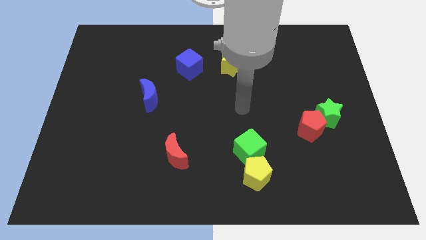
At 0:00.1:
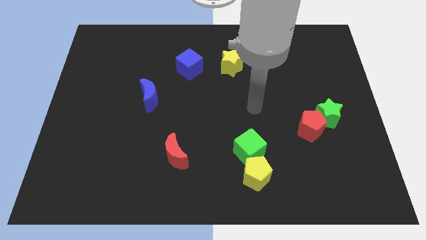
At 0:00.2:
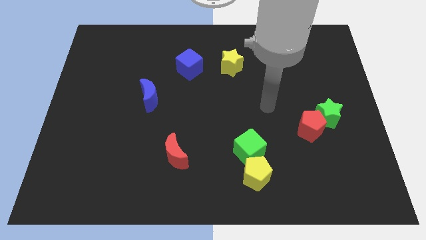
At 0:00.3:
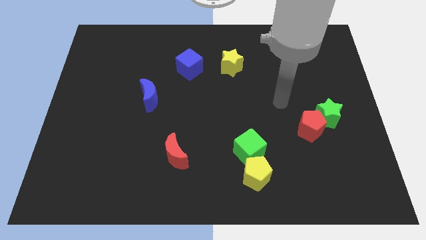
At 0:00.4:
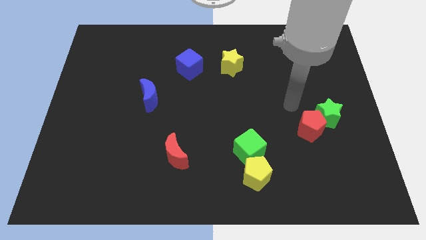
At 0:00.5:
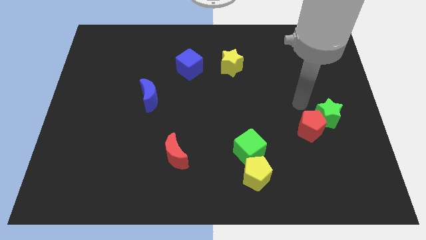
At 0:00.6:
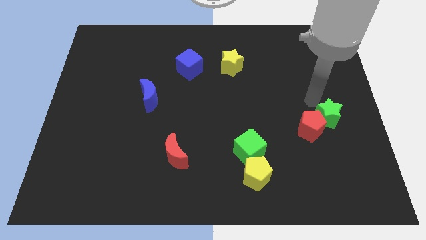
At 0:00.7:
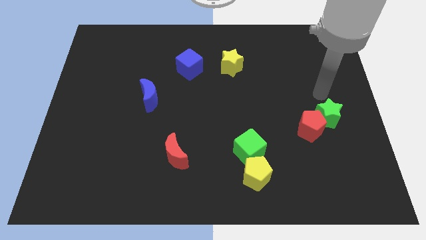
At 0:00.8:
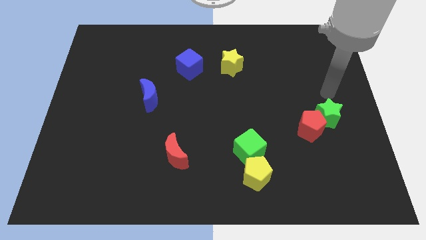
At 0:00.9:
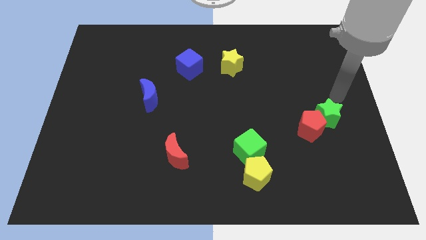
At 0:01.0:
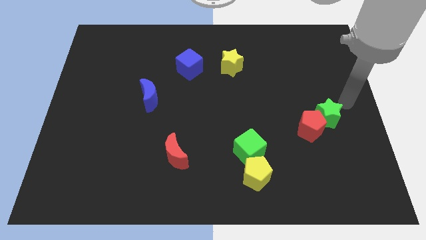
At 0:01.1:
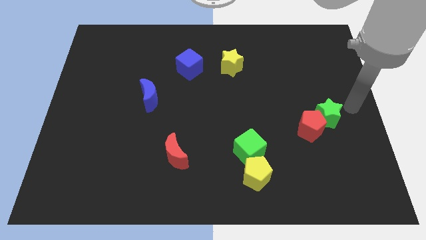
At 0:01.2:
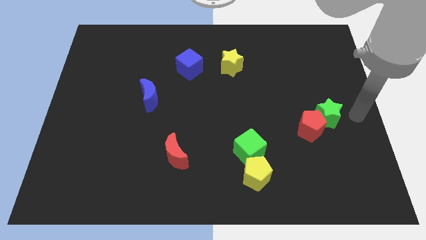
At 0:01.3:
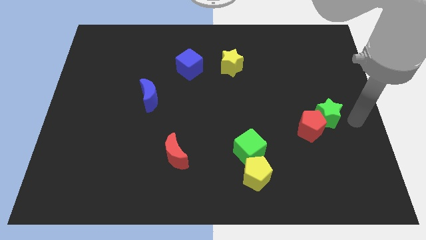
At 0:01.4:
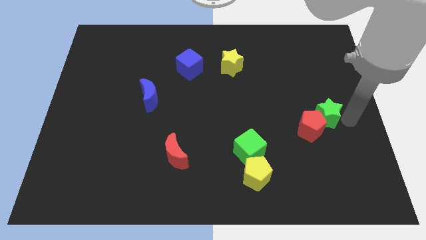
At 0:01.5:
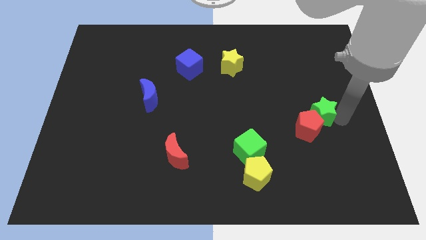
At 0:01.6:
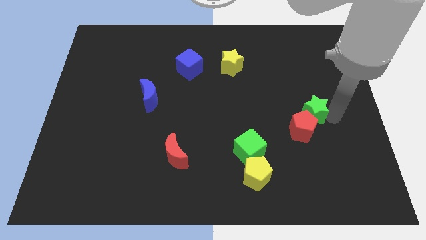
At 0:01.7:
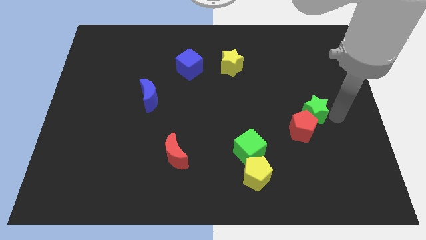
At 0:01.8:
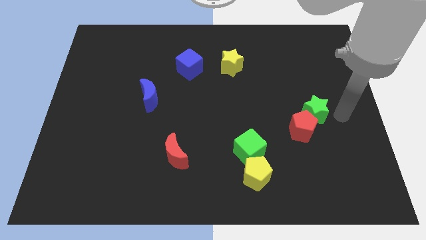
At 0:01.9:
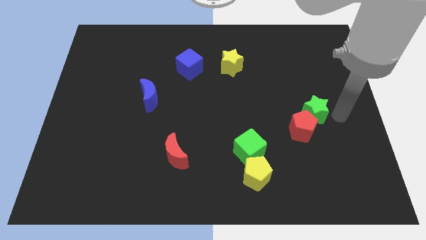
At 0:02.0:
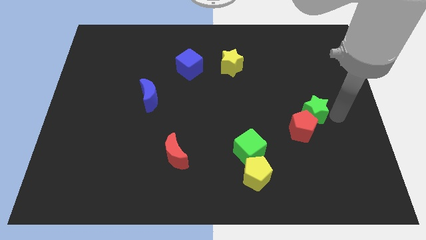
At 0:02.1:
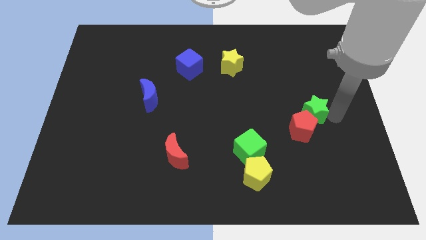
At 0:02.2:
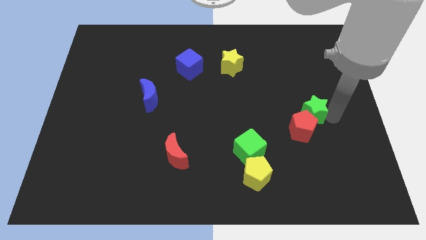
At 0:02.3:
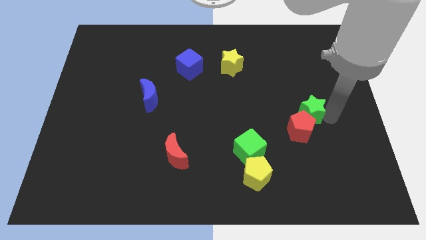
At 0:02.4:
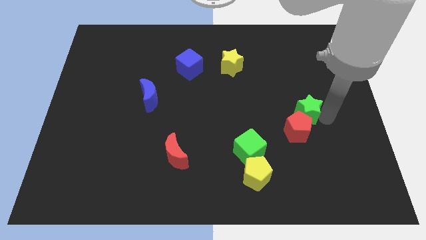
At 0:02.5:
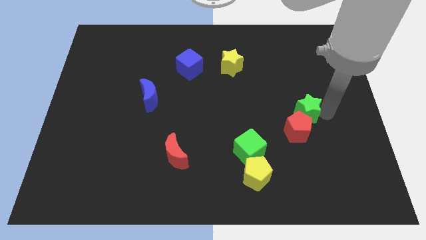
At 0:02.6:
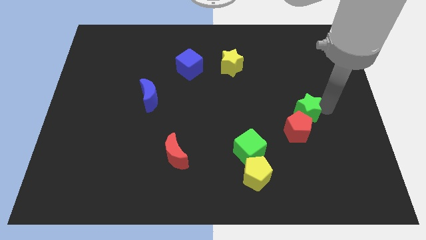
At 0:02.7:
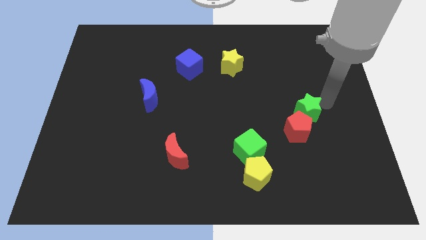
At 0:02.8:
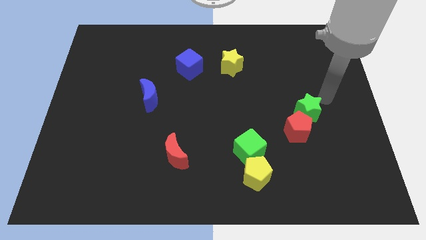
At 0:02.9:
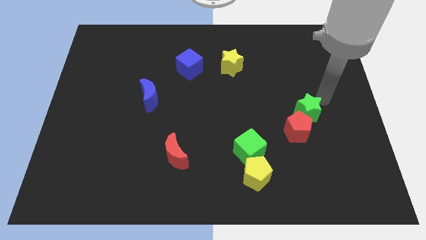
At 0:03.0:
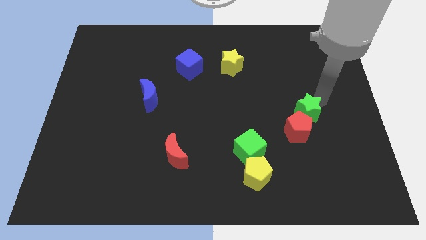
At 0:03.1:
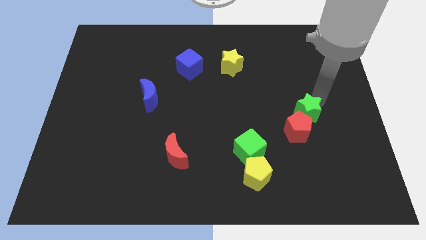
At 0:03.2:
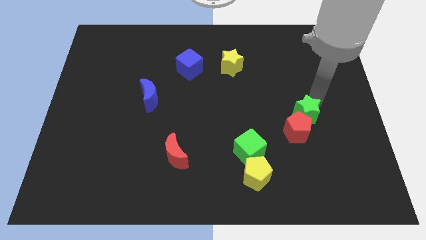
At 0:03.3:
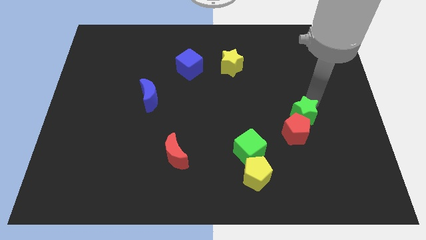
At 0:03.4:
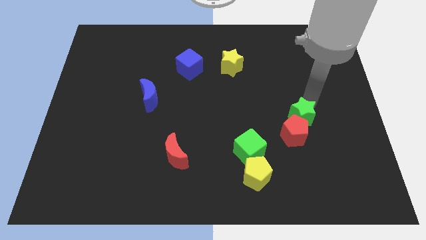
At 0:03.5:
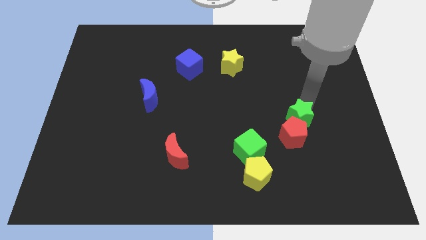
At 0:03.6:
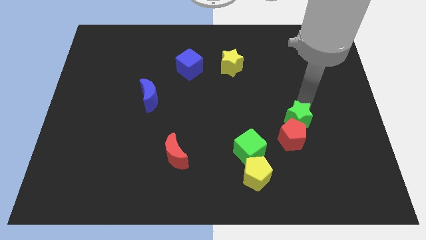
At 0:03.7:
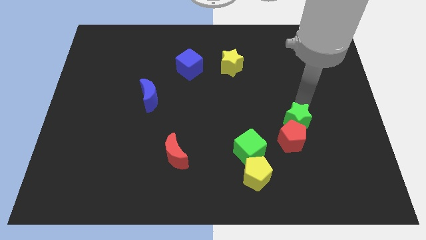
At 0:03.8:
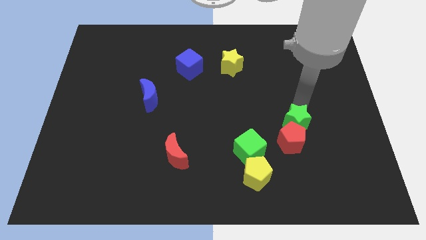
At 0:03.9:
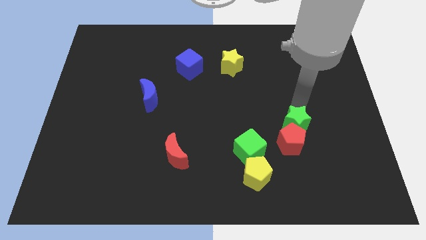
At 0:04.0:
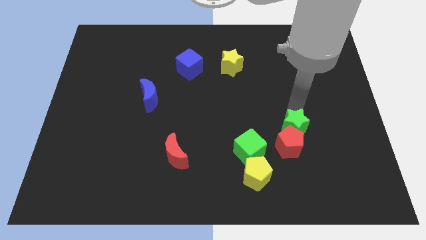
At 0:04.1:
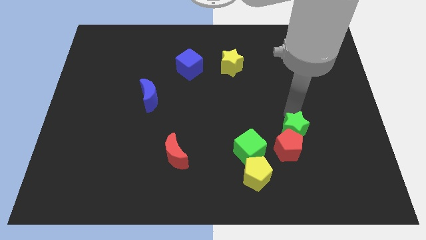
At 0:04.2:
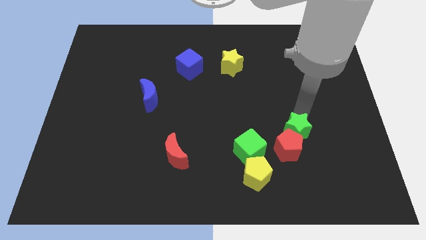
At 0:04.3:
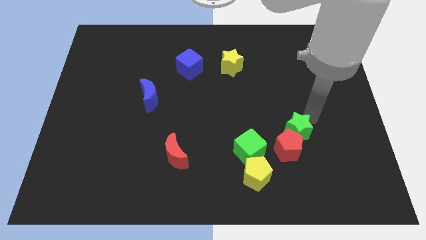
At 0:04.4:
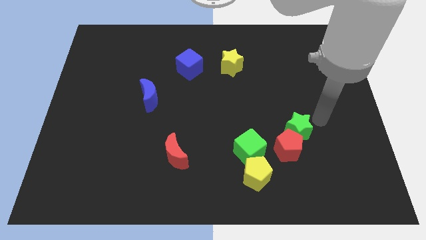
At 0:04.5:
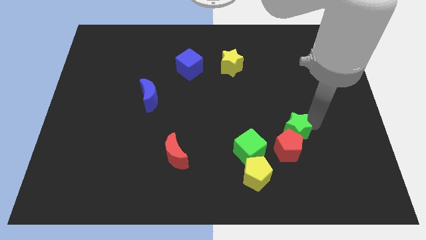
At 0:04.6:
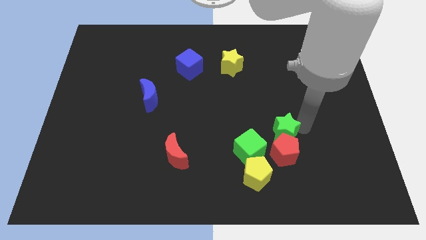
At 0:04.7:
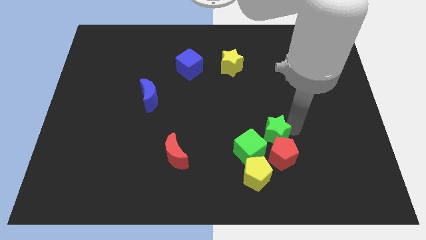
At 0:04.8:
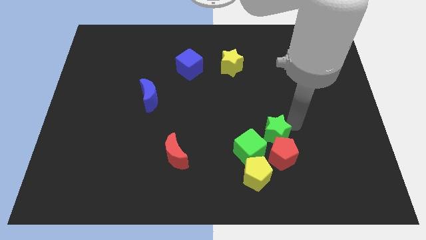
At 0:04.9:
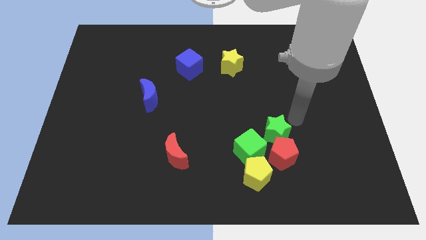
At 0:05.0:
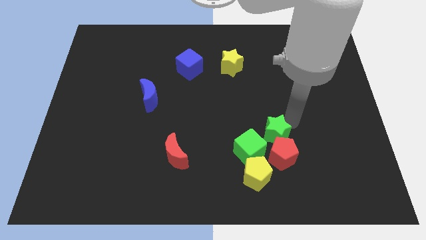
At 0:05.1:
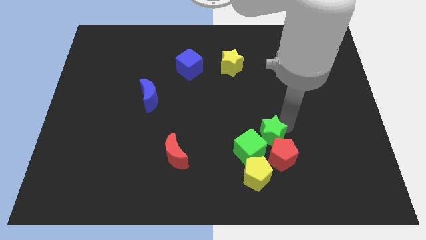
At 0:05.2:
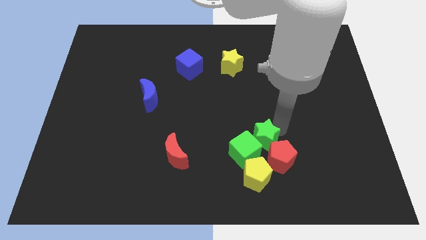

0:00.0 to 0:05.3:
move the green star next to the green cube

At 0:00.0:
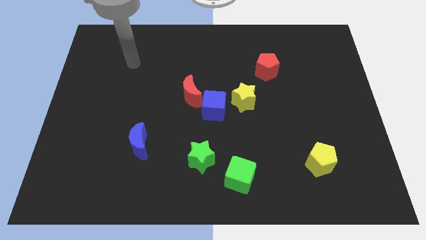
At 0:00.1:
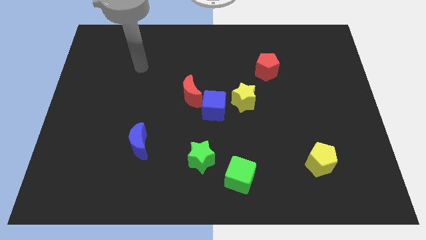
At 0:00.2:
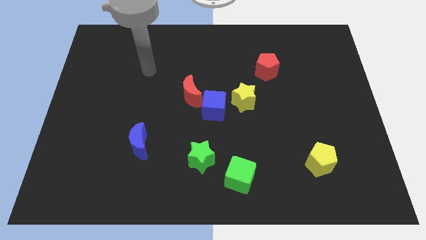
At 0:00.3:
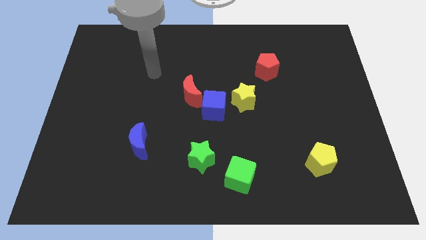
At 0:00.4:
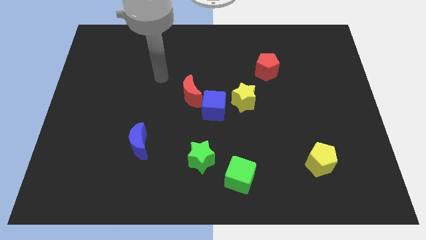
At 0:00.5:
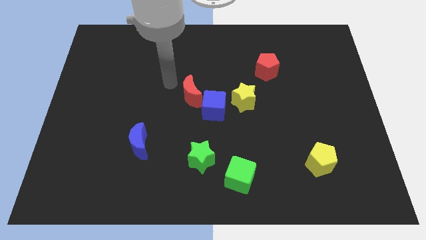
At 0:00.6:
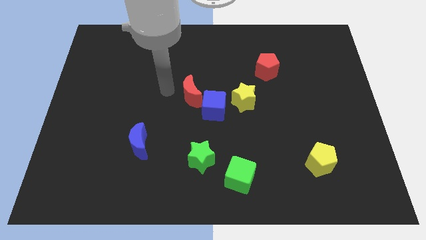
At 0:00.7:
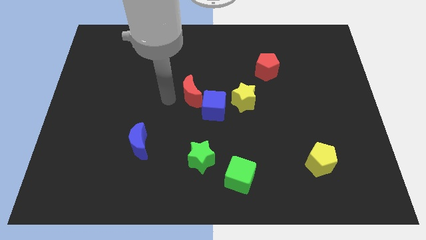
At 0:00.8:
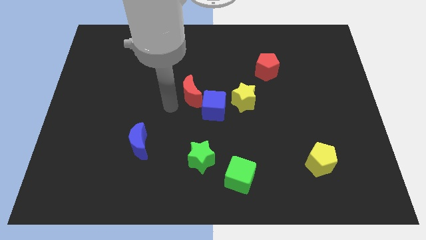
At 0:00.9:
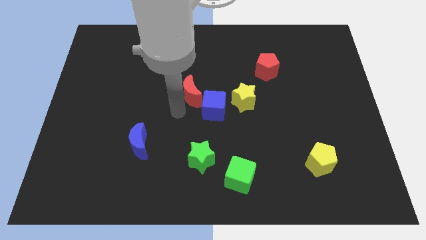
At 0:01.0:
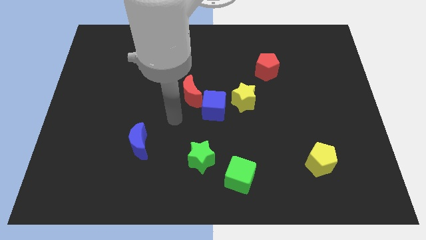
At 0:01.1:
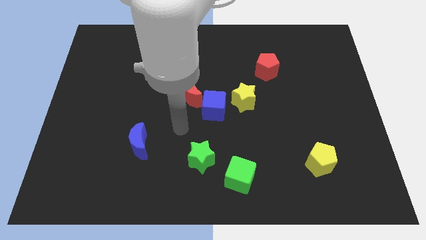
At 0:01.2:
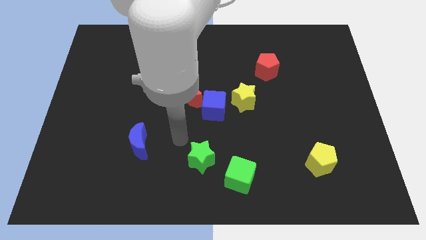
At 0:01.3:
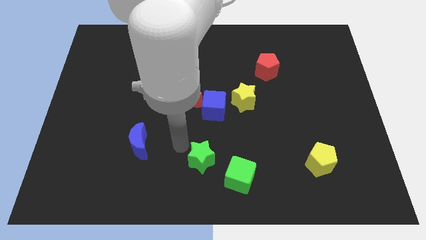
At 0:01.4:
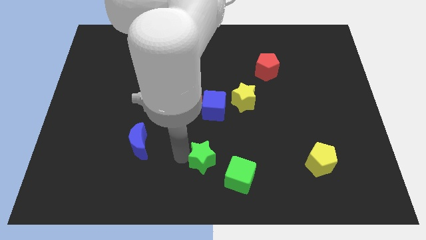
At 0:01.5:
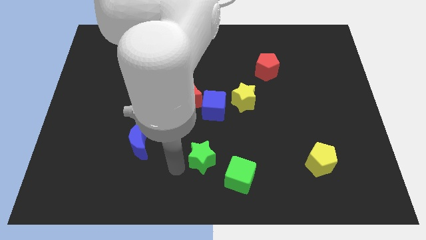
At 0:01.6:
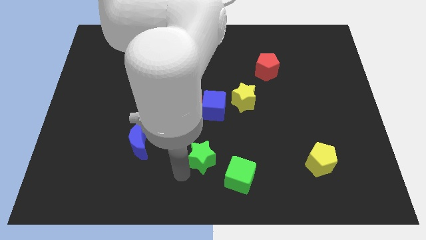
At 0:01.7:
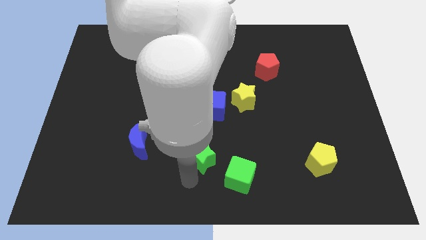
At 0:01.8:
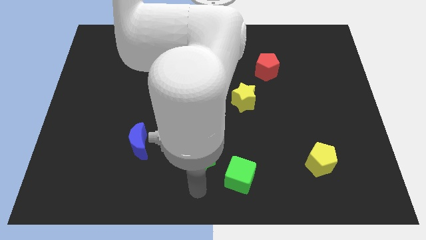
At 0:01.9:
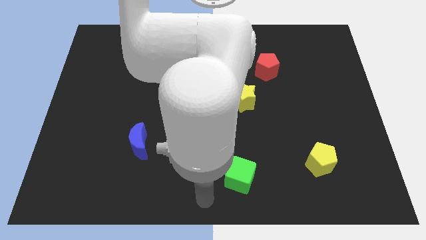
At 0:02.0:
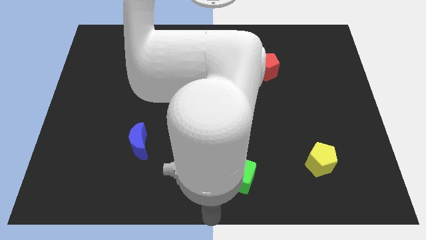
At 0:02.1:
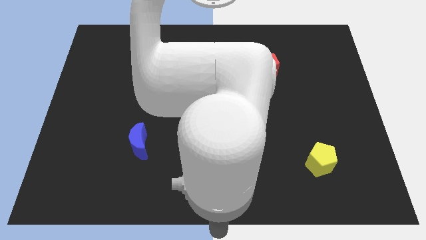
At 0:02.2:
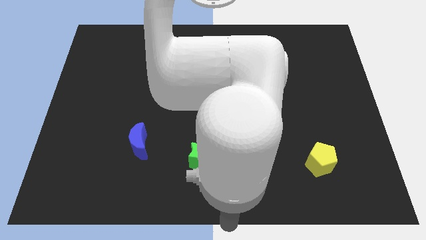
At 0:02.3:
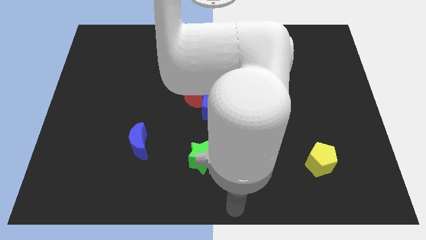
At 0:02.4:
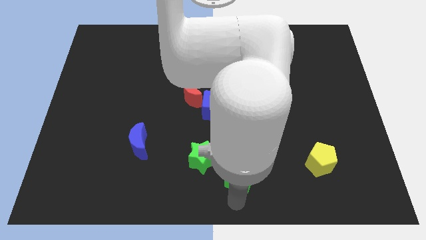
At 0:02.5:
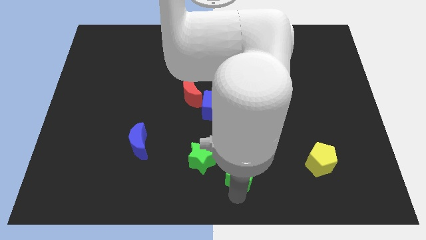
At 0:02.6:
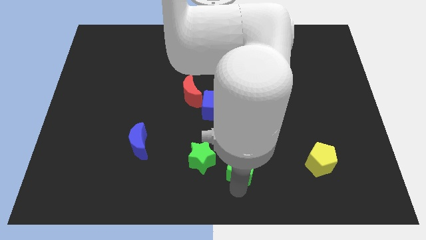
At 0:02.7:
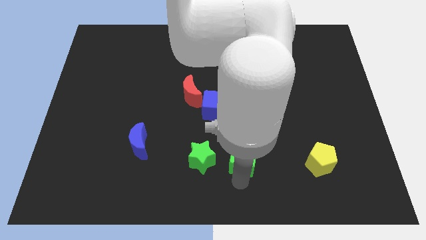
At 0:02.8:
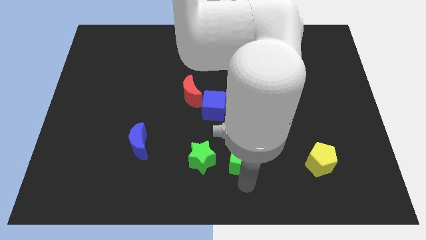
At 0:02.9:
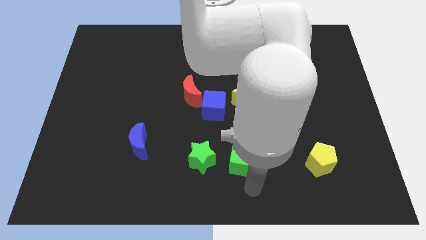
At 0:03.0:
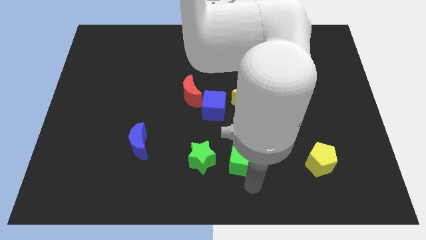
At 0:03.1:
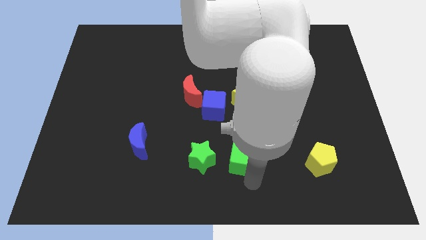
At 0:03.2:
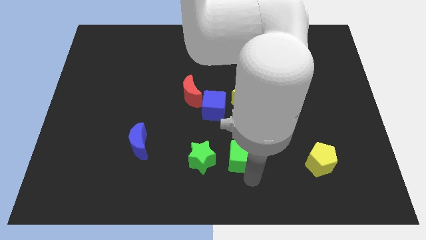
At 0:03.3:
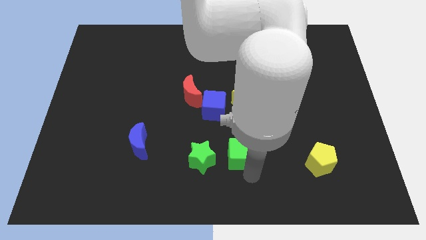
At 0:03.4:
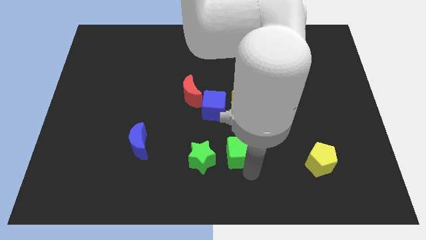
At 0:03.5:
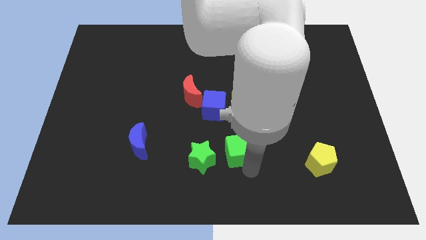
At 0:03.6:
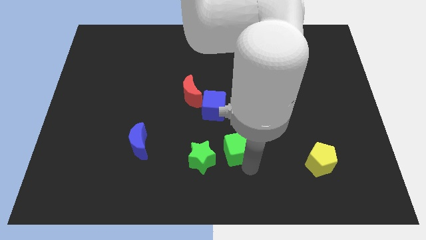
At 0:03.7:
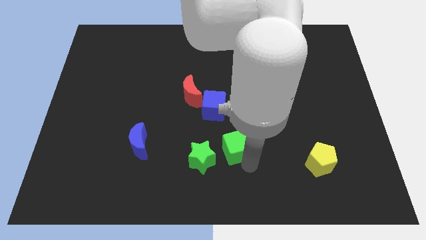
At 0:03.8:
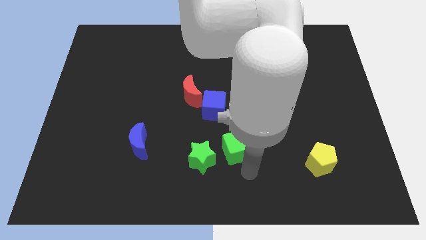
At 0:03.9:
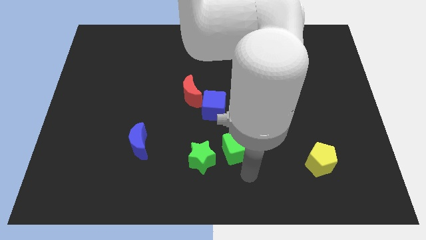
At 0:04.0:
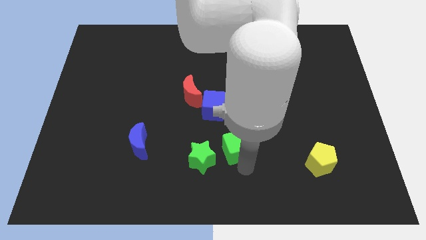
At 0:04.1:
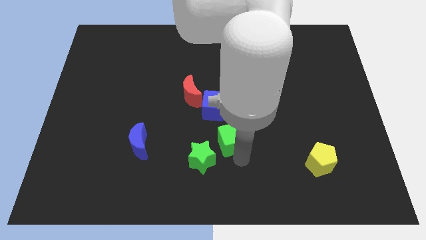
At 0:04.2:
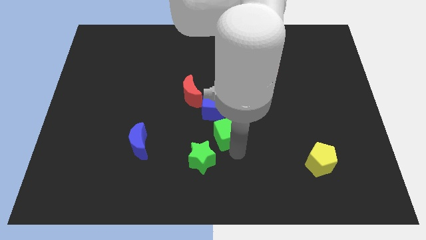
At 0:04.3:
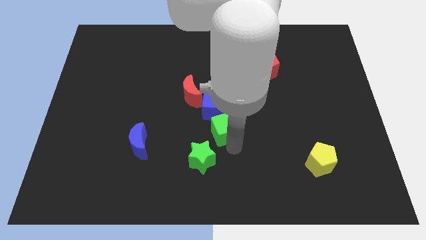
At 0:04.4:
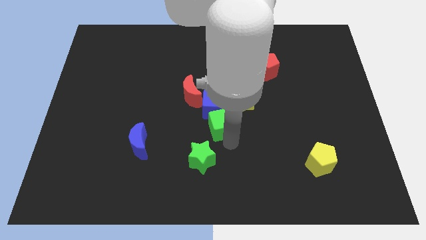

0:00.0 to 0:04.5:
push the green cube towards the blue cube
